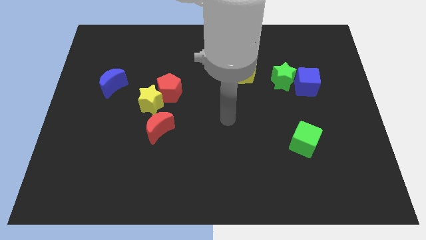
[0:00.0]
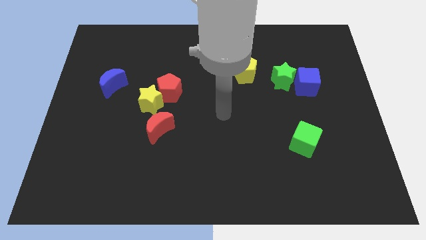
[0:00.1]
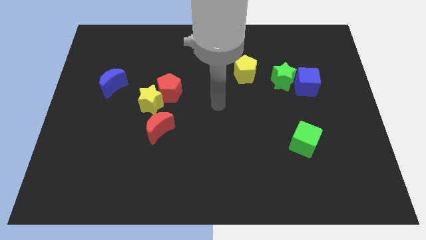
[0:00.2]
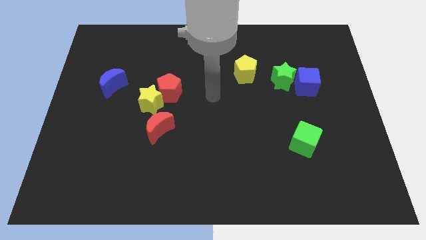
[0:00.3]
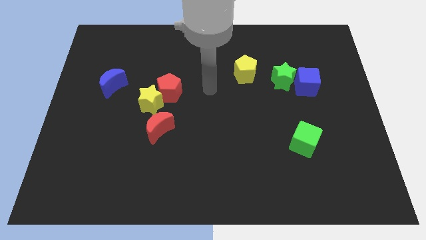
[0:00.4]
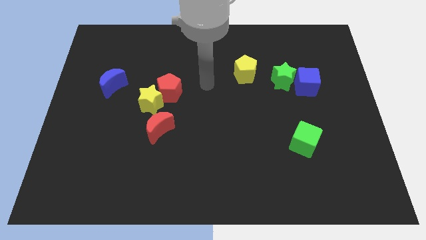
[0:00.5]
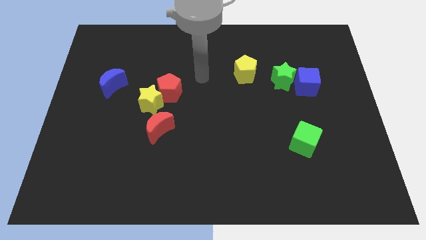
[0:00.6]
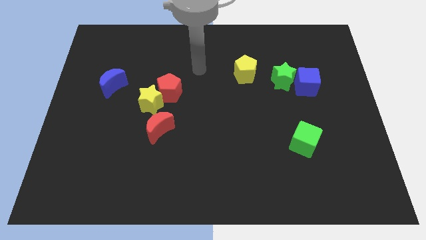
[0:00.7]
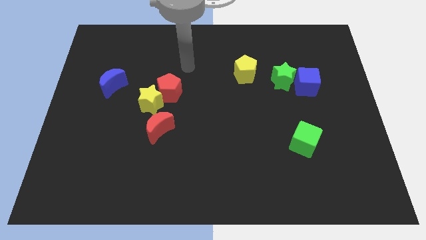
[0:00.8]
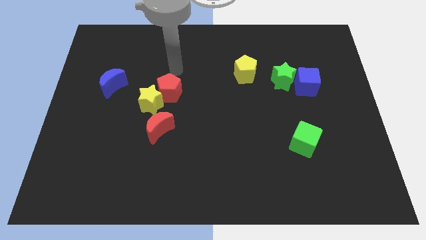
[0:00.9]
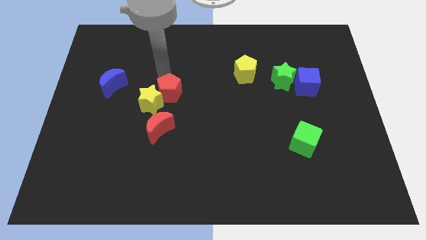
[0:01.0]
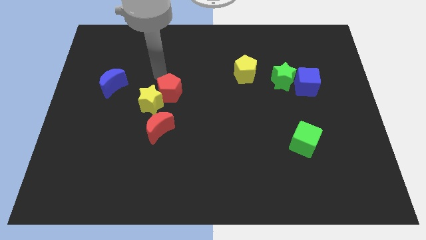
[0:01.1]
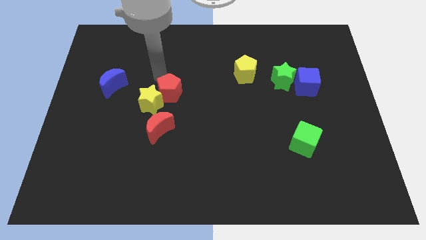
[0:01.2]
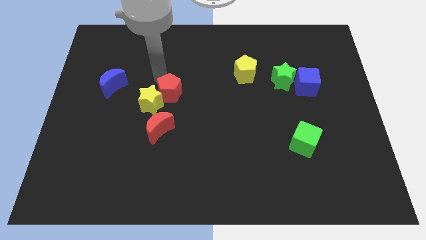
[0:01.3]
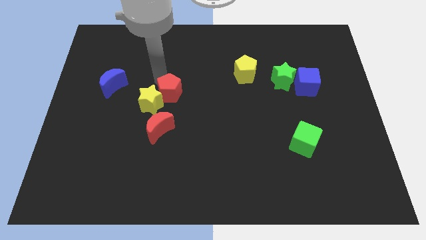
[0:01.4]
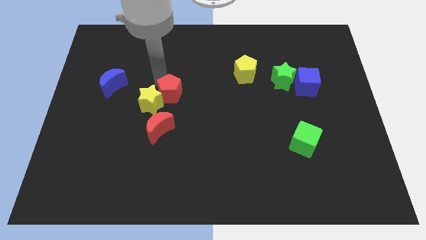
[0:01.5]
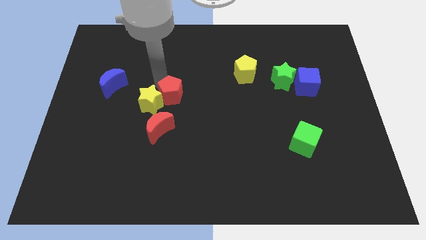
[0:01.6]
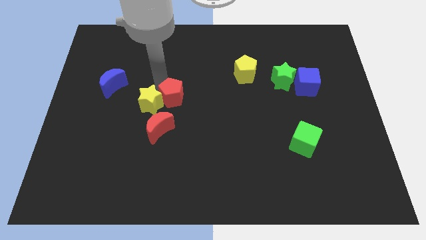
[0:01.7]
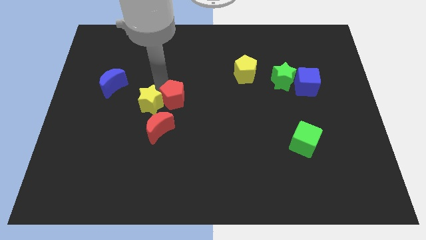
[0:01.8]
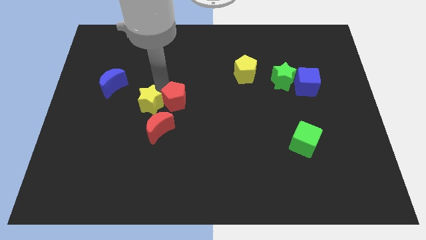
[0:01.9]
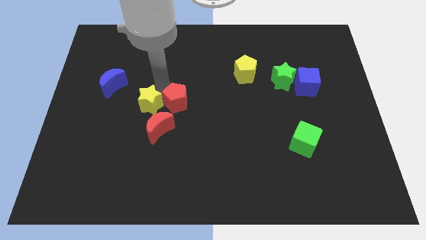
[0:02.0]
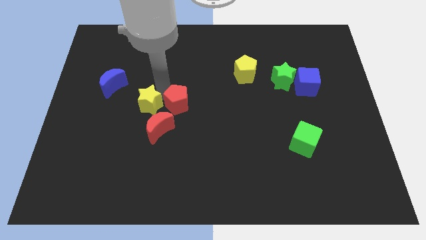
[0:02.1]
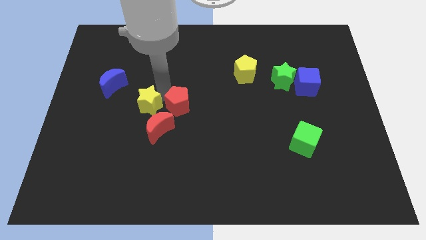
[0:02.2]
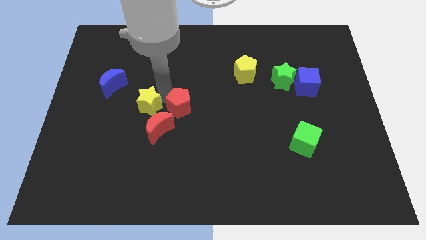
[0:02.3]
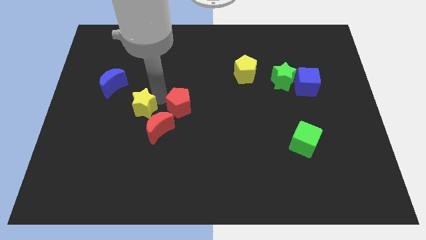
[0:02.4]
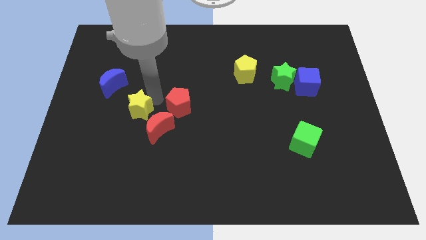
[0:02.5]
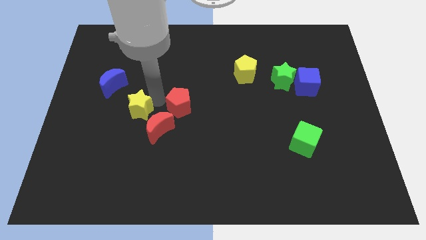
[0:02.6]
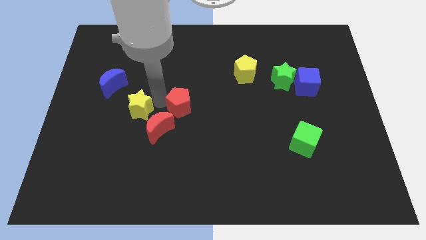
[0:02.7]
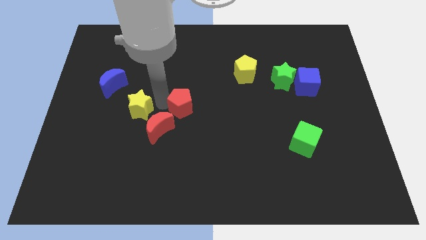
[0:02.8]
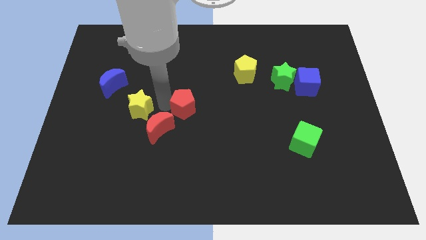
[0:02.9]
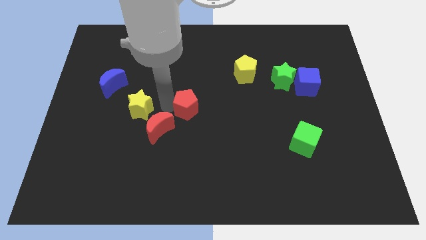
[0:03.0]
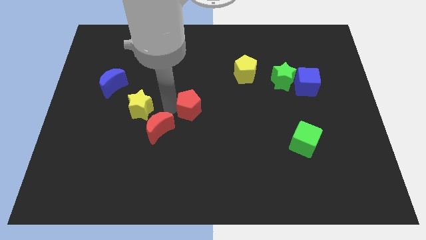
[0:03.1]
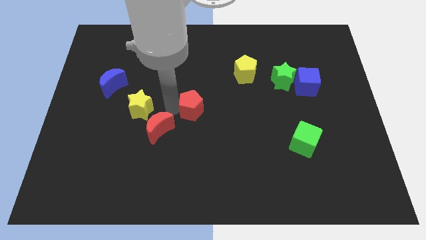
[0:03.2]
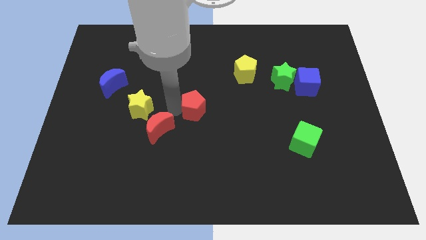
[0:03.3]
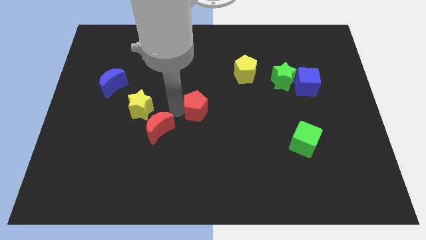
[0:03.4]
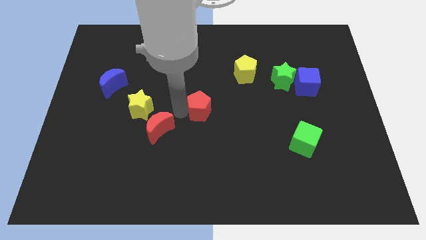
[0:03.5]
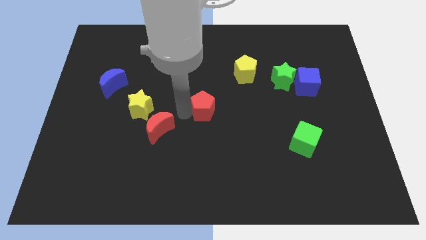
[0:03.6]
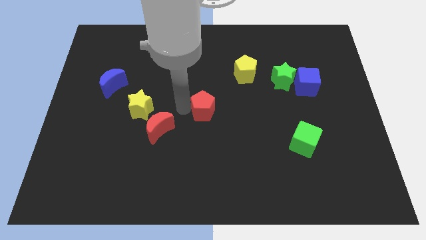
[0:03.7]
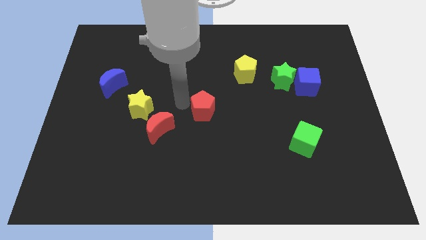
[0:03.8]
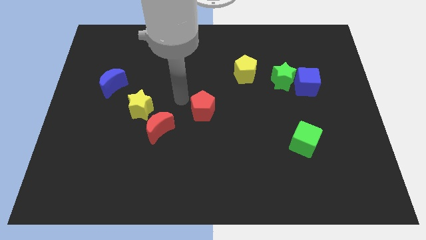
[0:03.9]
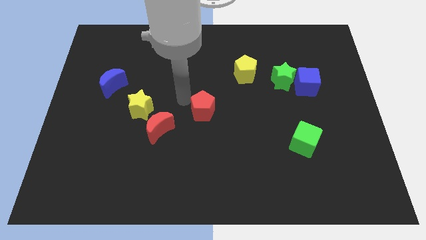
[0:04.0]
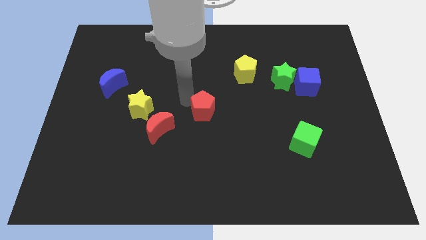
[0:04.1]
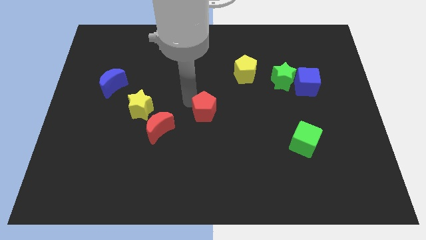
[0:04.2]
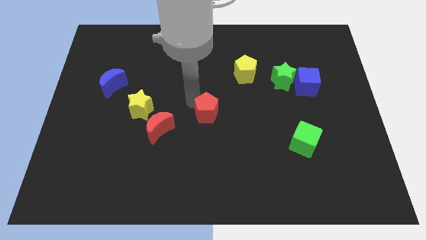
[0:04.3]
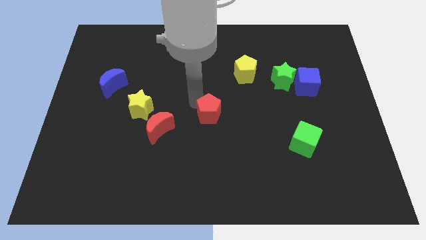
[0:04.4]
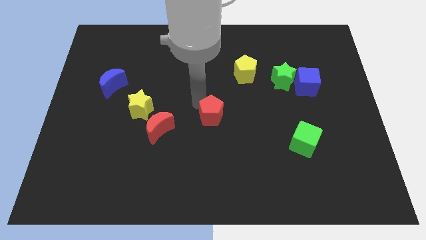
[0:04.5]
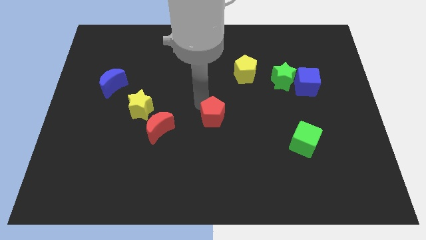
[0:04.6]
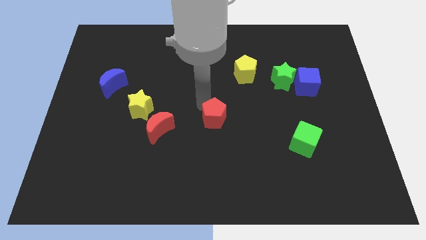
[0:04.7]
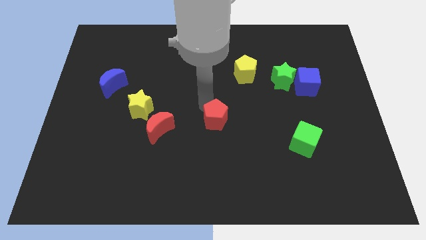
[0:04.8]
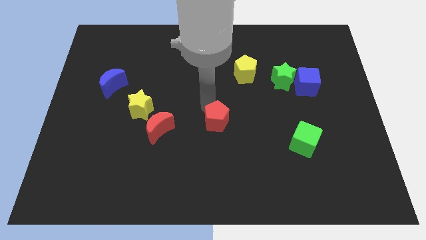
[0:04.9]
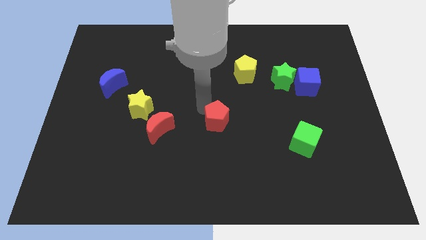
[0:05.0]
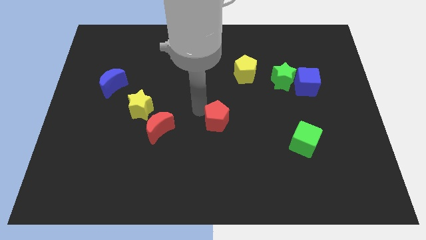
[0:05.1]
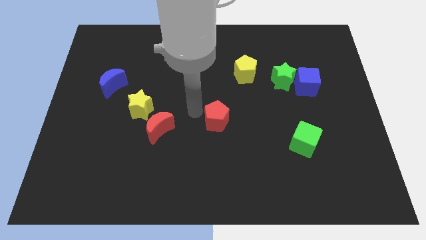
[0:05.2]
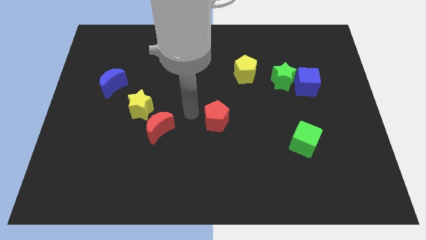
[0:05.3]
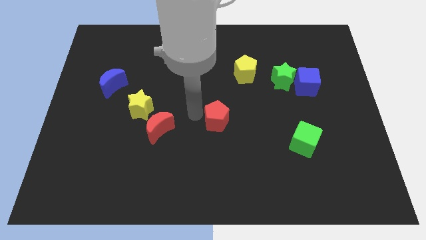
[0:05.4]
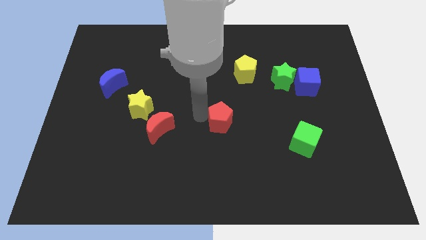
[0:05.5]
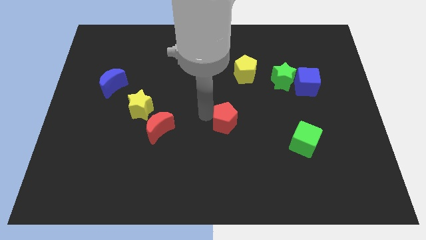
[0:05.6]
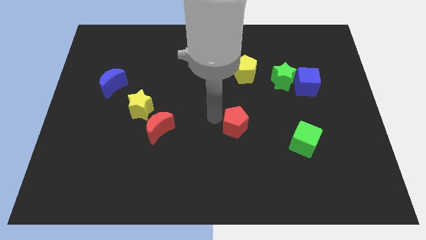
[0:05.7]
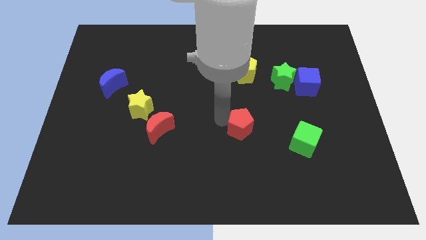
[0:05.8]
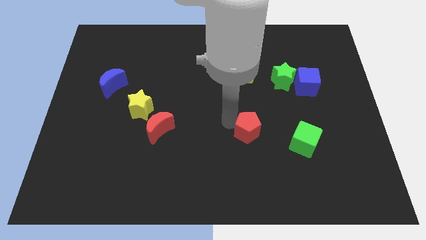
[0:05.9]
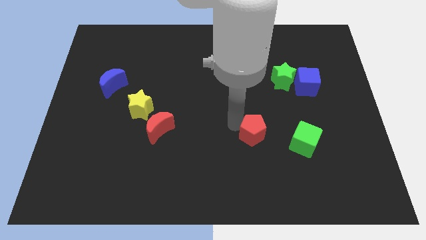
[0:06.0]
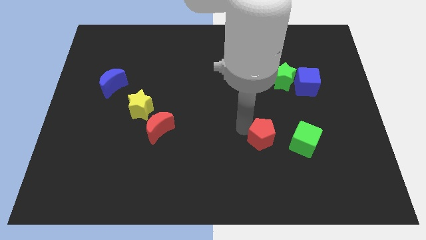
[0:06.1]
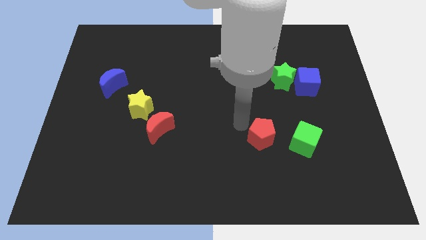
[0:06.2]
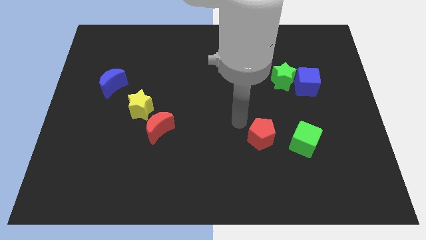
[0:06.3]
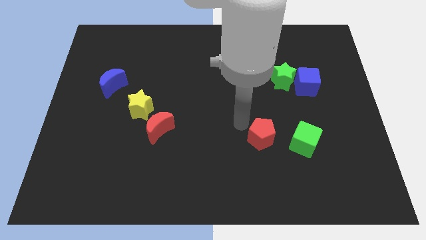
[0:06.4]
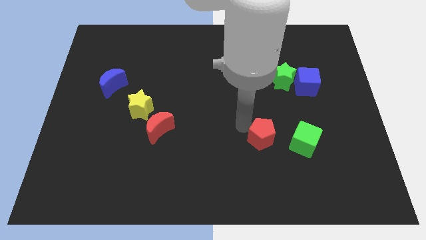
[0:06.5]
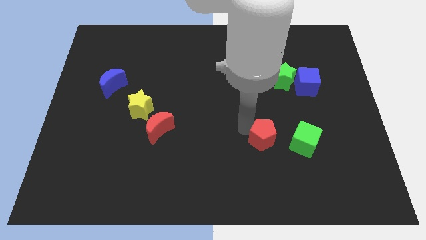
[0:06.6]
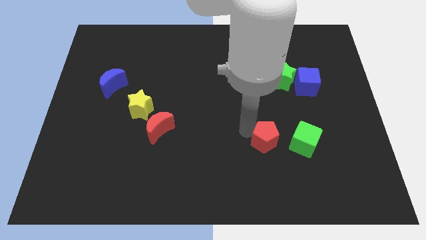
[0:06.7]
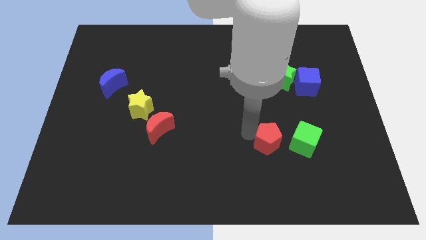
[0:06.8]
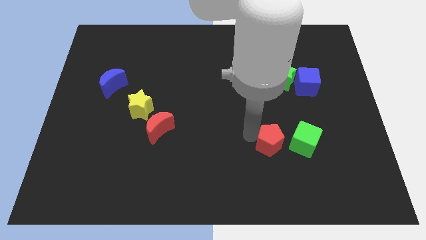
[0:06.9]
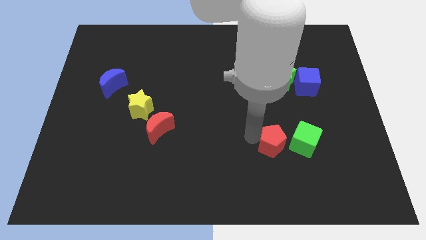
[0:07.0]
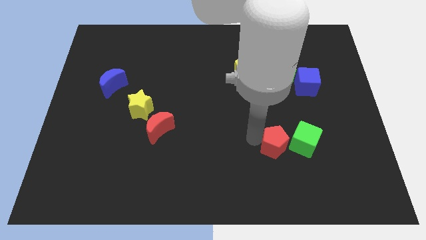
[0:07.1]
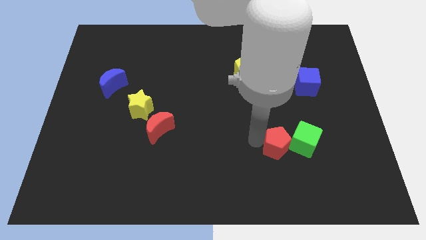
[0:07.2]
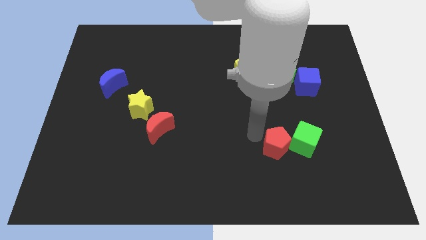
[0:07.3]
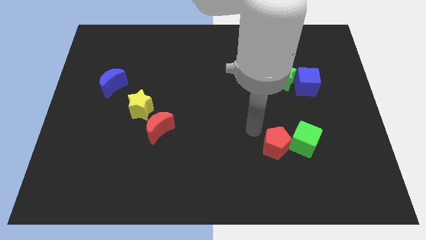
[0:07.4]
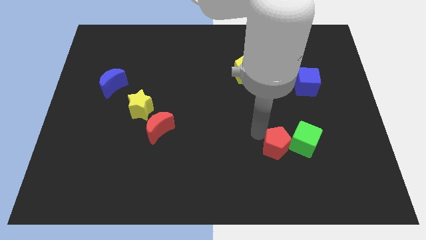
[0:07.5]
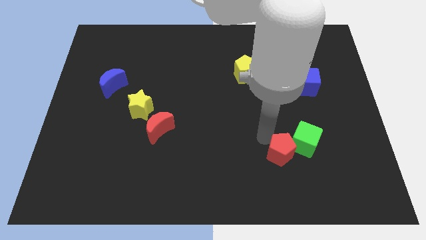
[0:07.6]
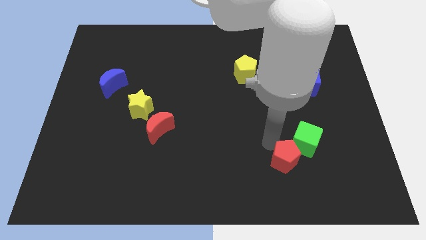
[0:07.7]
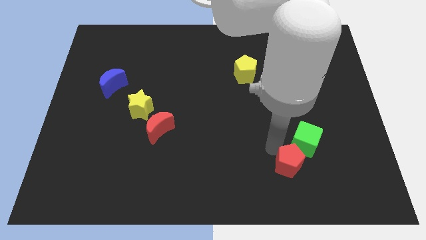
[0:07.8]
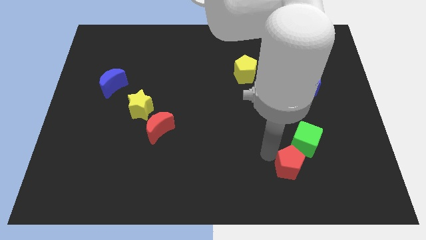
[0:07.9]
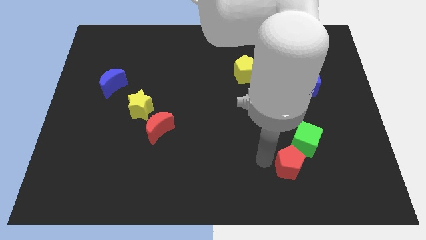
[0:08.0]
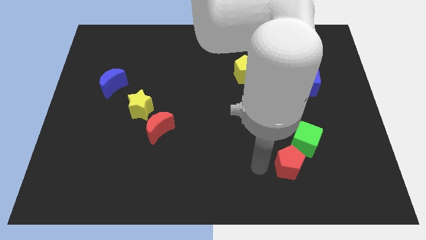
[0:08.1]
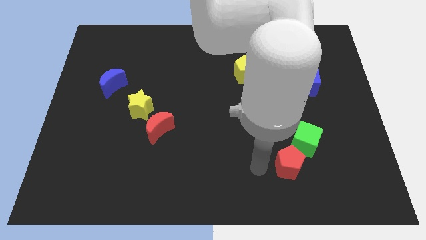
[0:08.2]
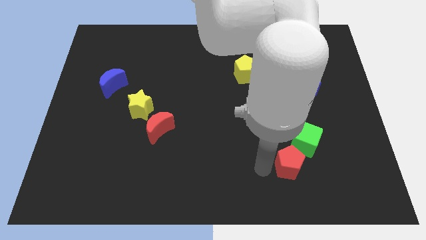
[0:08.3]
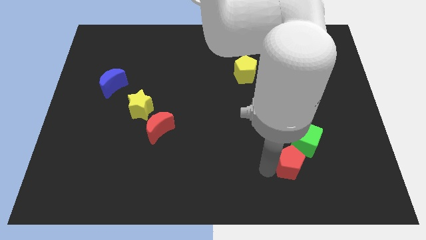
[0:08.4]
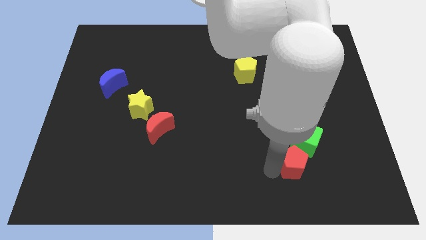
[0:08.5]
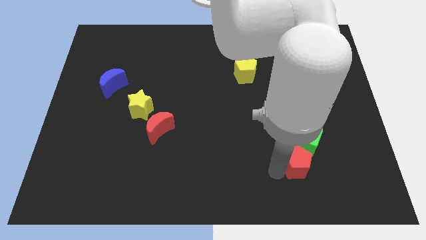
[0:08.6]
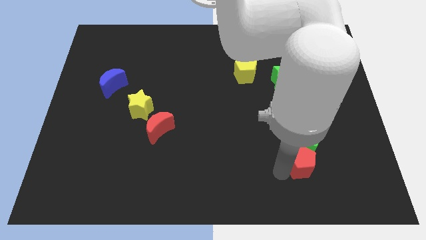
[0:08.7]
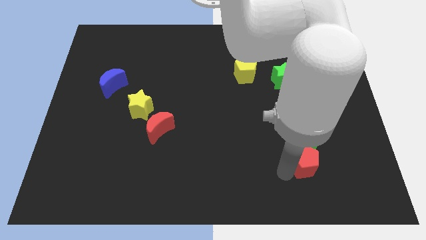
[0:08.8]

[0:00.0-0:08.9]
move the red pentagon to the bottom right of the green cube
